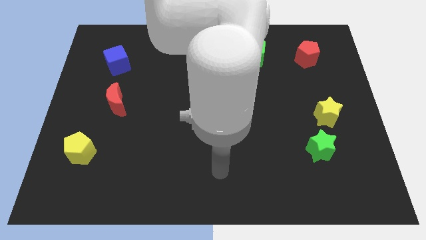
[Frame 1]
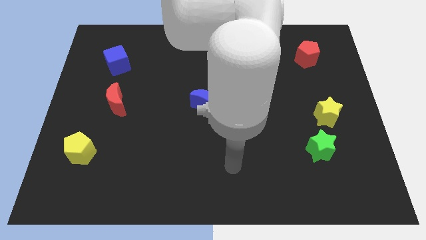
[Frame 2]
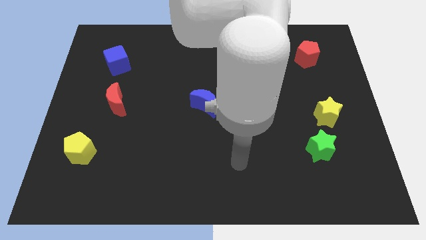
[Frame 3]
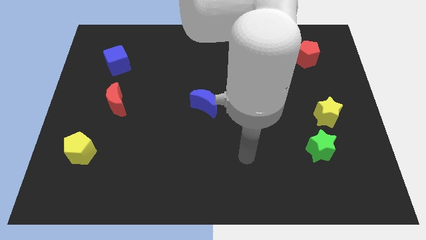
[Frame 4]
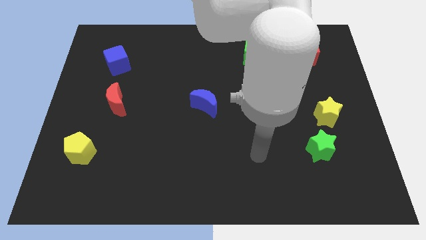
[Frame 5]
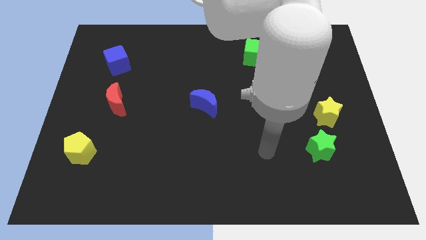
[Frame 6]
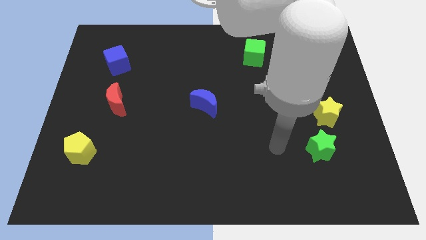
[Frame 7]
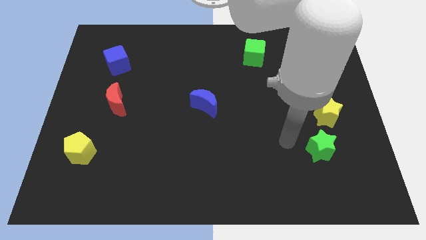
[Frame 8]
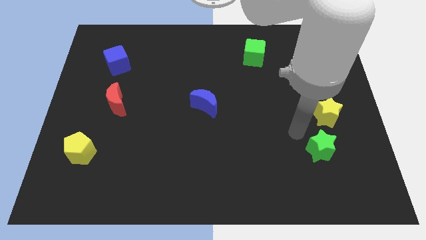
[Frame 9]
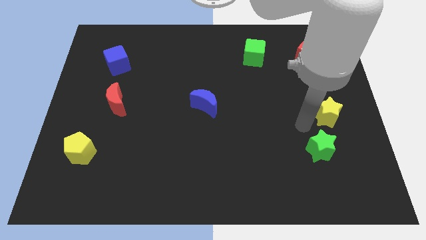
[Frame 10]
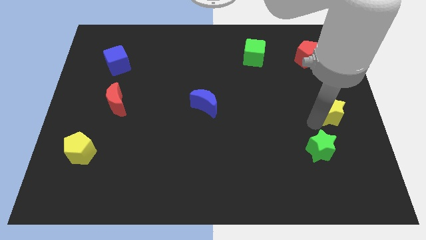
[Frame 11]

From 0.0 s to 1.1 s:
separate the green star from the yellow star

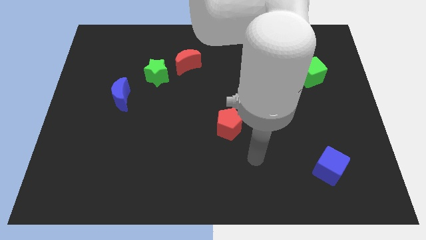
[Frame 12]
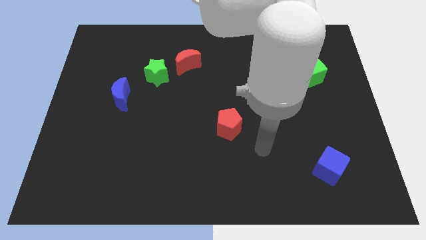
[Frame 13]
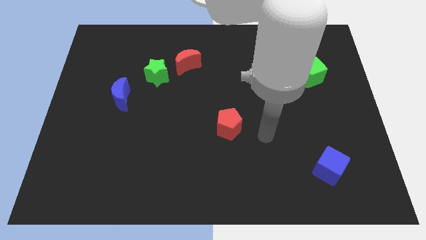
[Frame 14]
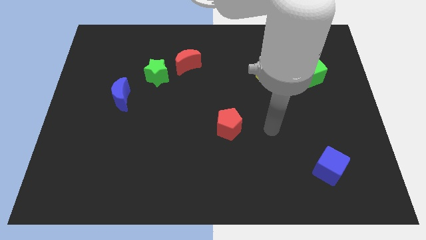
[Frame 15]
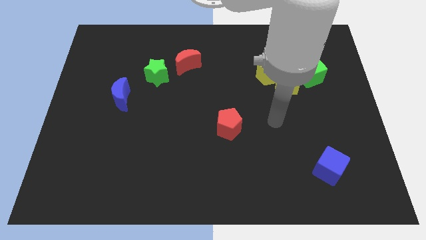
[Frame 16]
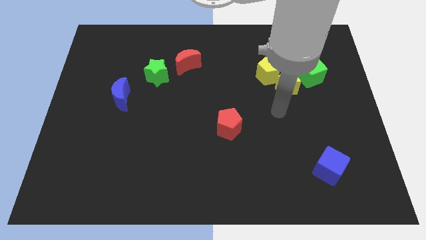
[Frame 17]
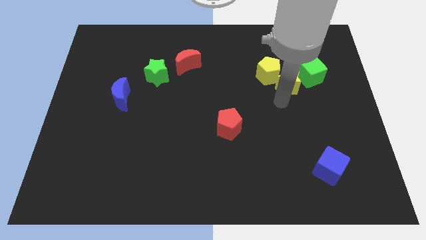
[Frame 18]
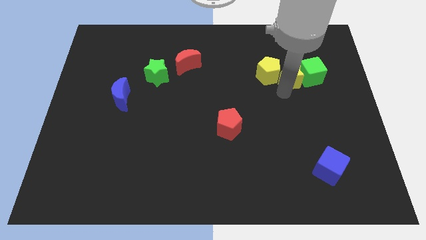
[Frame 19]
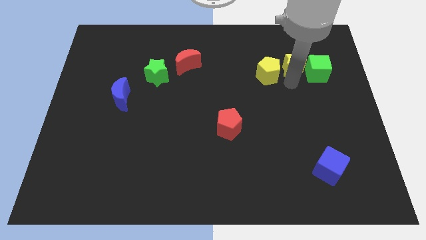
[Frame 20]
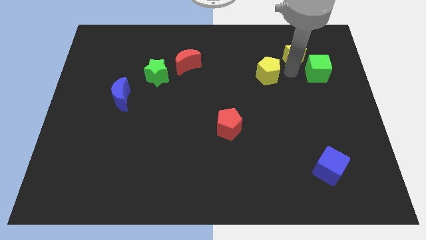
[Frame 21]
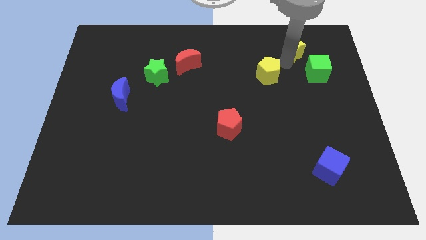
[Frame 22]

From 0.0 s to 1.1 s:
pull the yellow pentagon apart from the yellow star

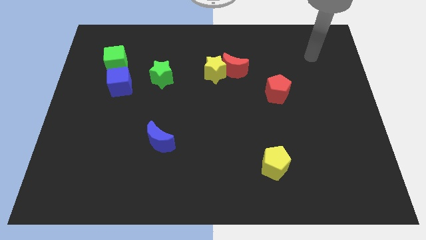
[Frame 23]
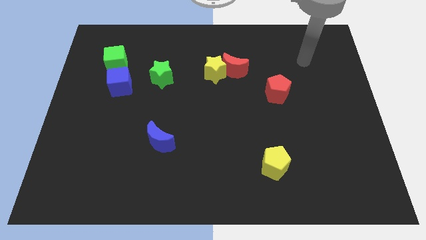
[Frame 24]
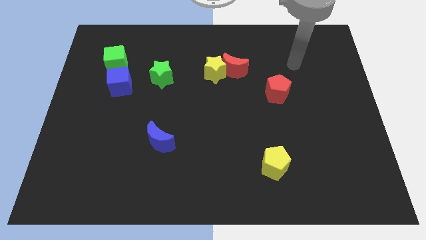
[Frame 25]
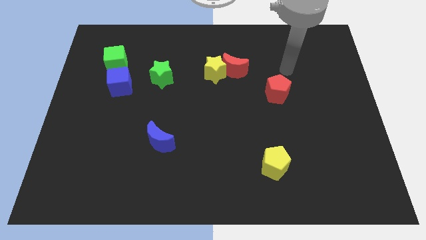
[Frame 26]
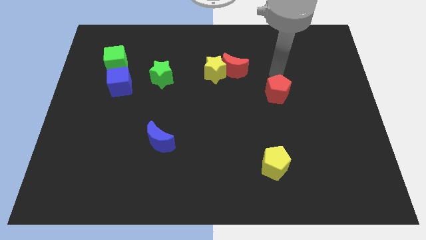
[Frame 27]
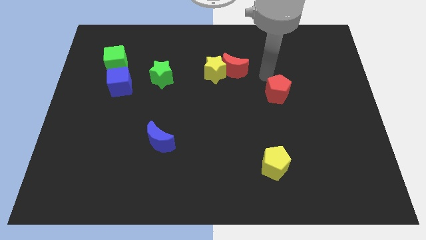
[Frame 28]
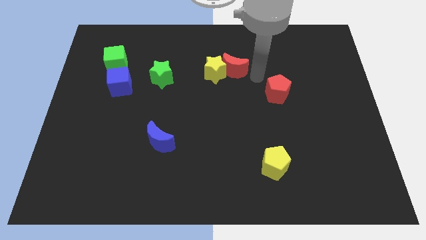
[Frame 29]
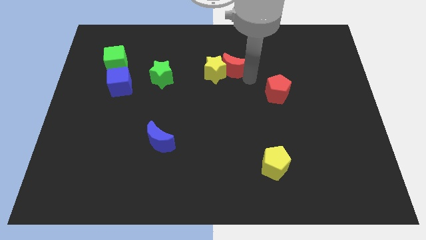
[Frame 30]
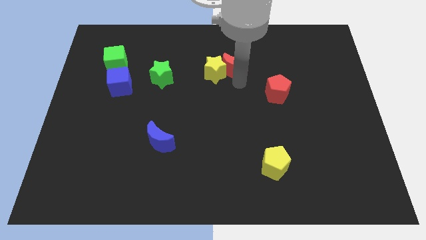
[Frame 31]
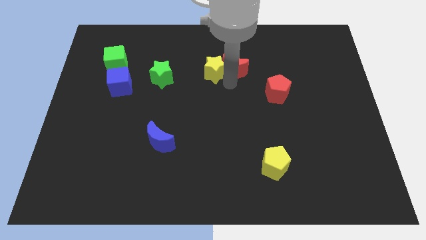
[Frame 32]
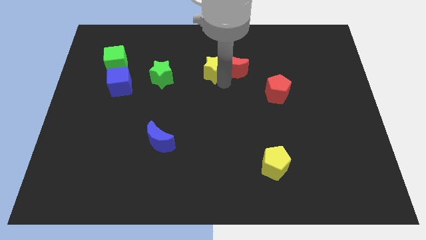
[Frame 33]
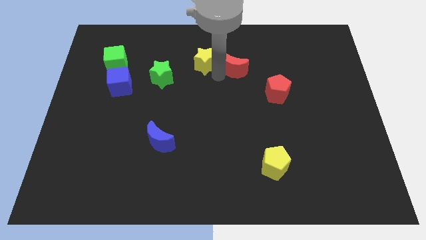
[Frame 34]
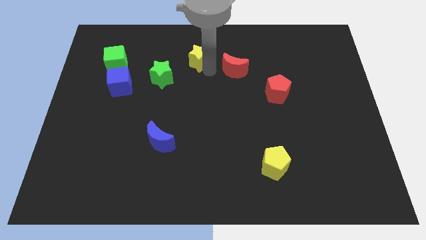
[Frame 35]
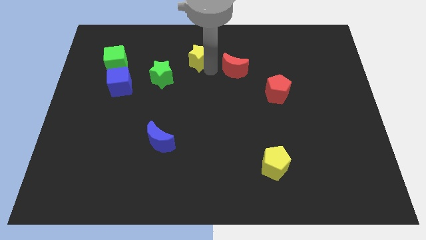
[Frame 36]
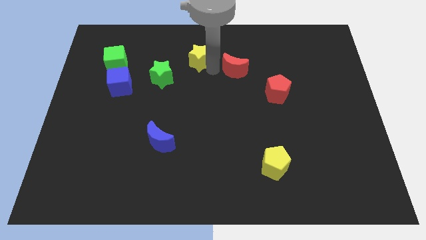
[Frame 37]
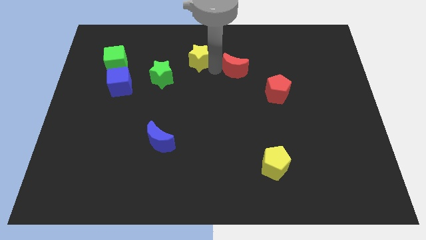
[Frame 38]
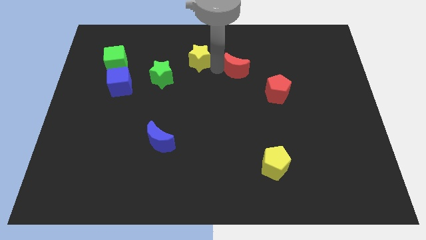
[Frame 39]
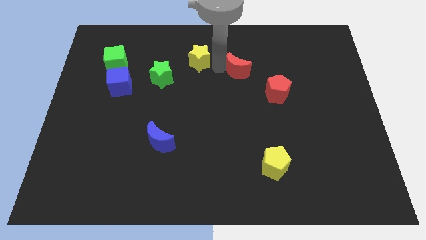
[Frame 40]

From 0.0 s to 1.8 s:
separate the red moon from the yellow star

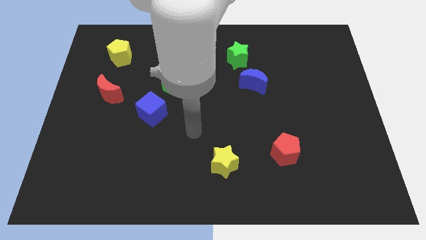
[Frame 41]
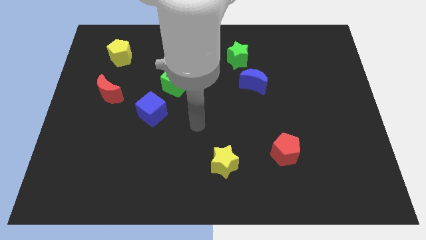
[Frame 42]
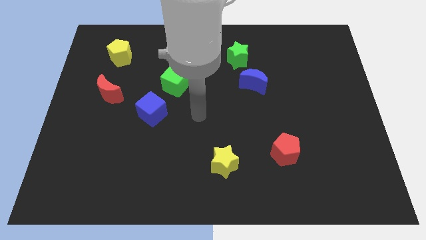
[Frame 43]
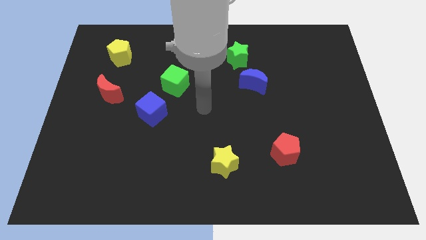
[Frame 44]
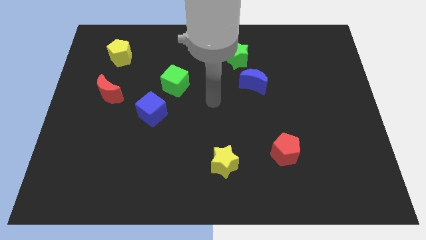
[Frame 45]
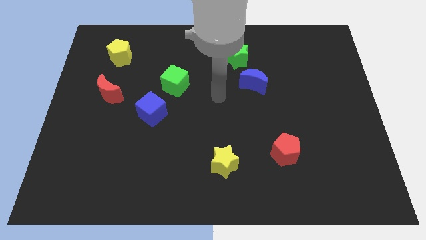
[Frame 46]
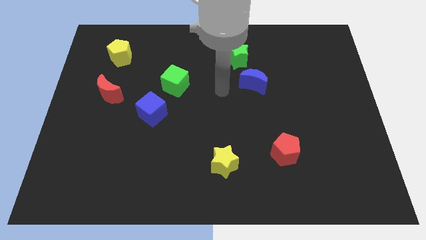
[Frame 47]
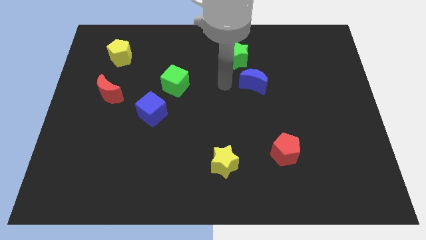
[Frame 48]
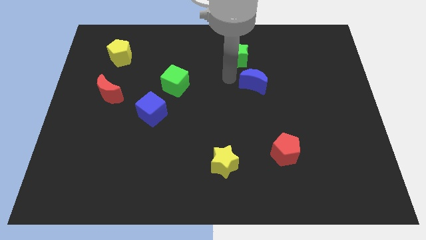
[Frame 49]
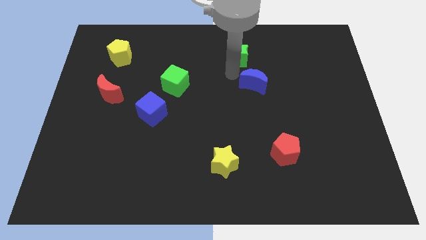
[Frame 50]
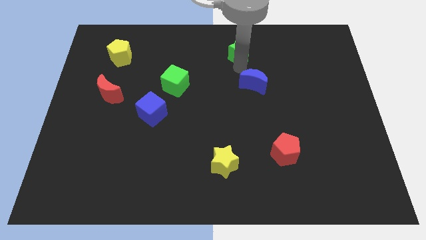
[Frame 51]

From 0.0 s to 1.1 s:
move the blue moon away from the green star

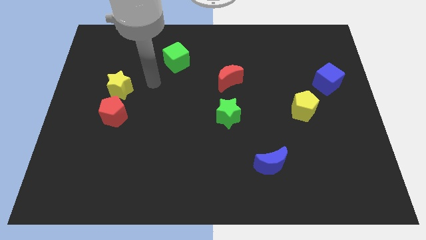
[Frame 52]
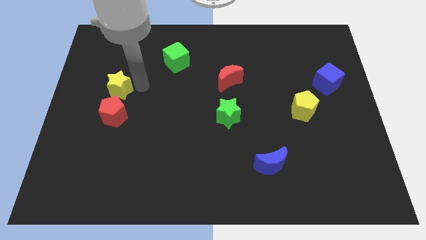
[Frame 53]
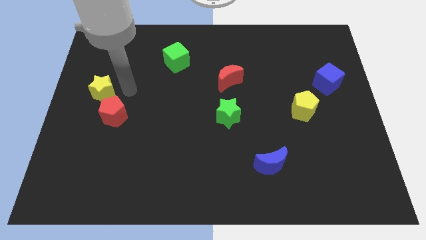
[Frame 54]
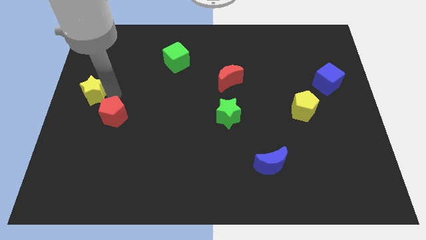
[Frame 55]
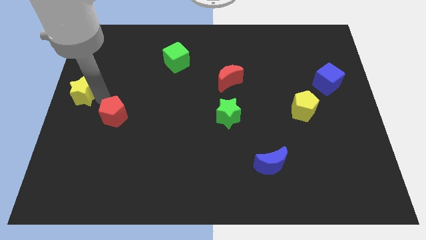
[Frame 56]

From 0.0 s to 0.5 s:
pull the red pentagon apart from the yellow star

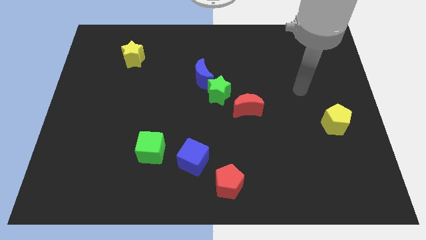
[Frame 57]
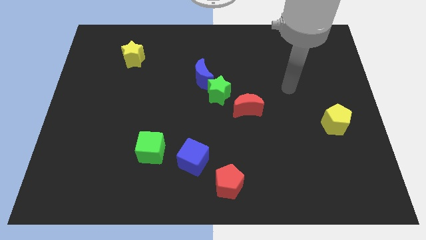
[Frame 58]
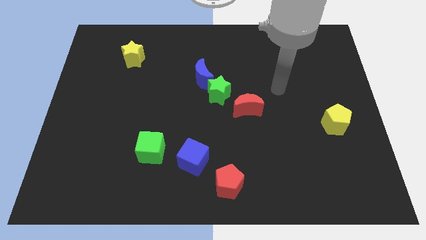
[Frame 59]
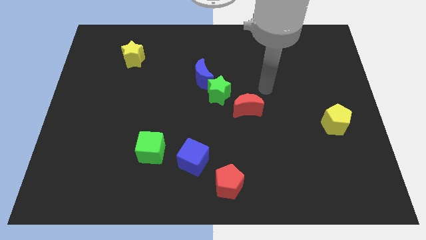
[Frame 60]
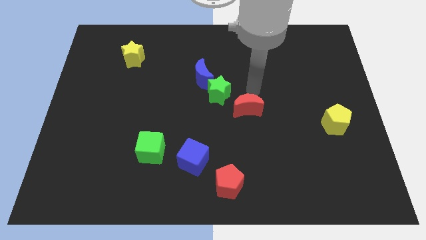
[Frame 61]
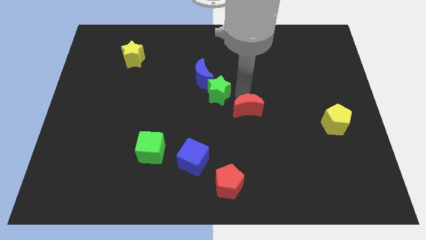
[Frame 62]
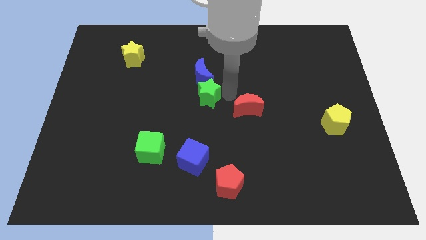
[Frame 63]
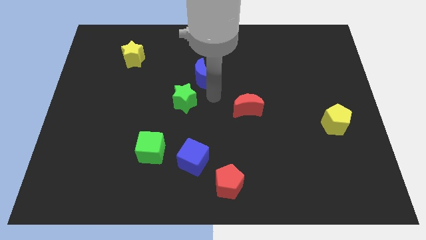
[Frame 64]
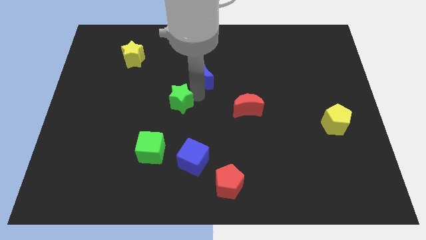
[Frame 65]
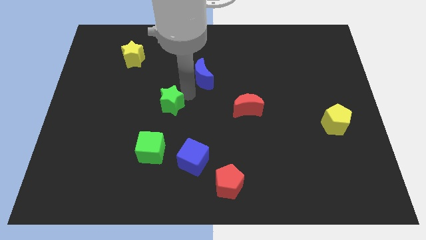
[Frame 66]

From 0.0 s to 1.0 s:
separate the blue moon from the green star

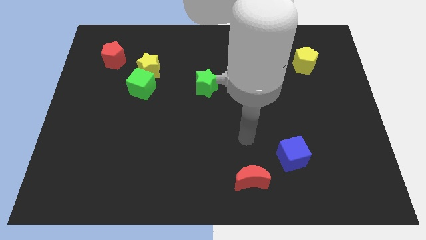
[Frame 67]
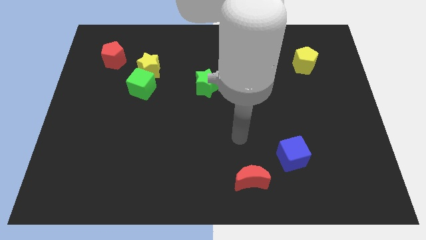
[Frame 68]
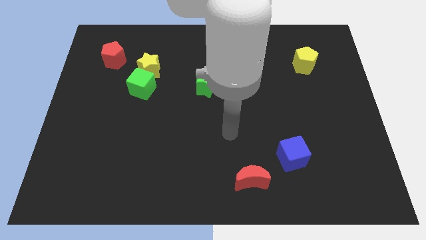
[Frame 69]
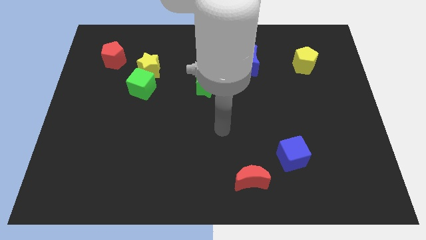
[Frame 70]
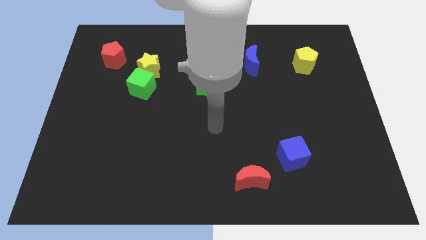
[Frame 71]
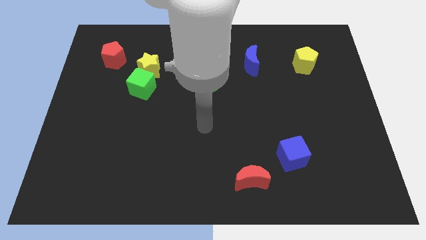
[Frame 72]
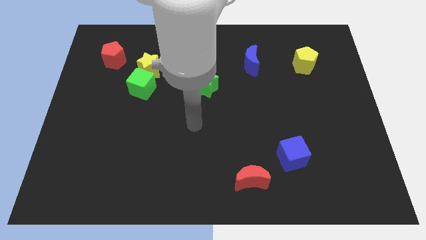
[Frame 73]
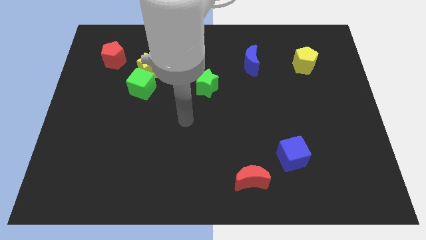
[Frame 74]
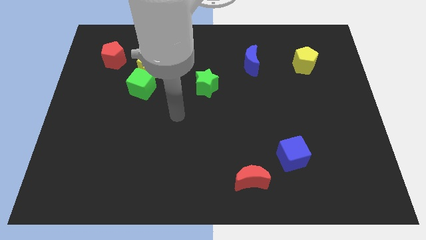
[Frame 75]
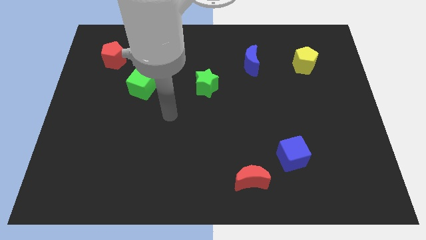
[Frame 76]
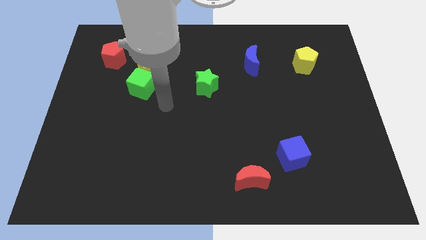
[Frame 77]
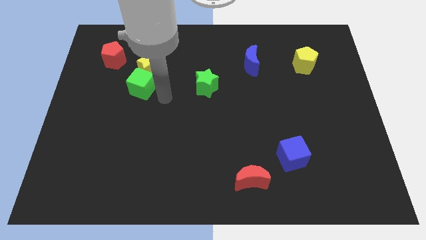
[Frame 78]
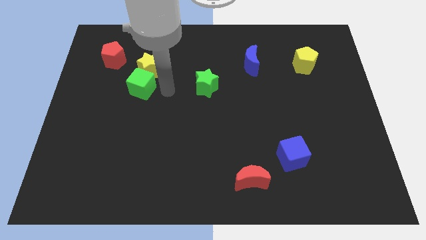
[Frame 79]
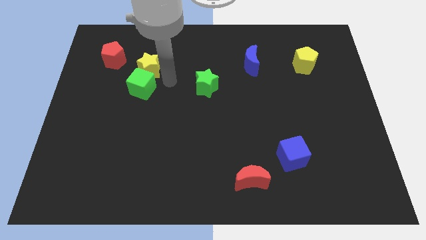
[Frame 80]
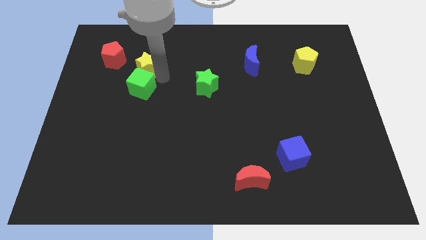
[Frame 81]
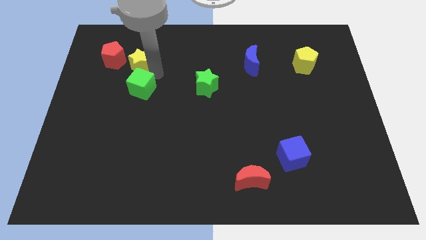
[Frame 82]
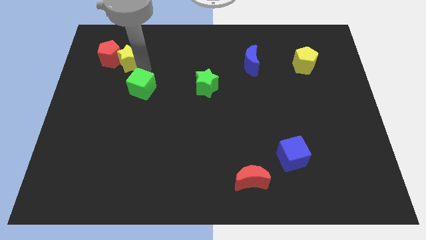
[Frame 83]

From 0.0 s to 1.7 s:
pull the green cube apart from the yellow star

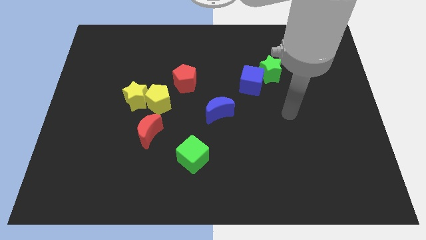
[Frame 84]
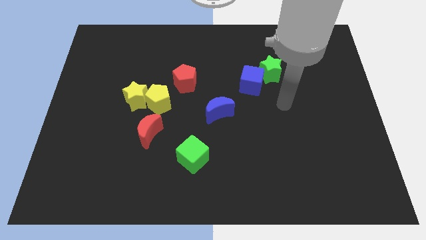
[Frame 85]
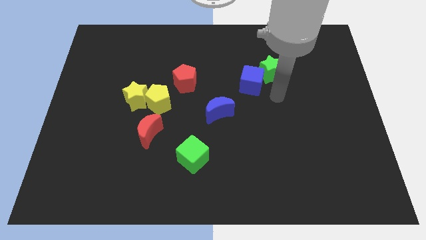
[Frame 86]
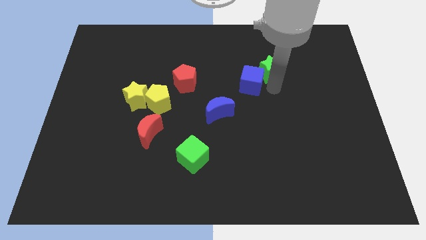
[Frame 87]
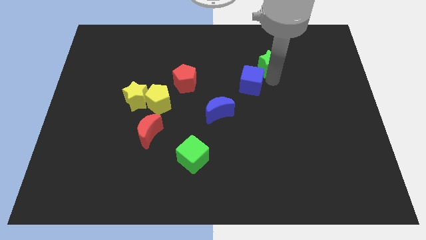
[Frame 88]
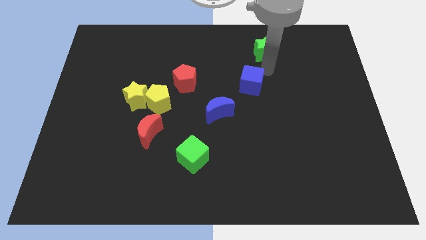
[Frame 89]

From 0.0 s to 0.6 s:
move the blue cube away from the green star

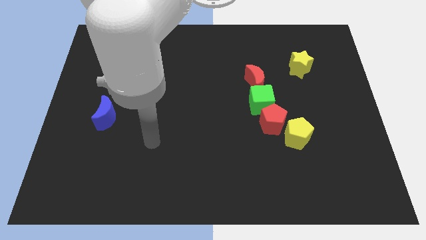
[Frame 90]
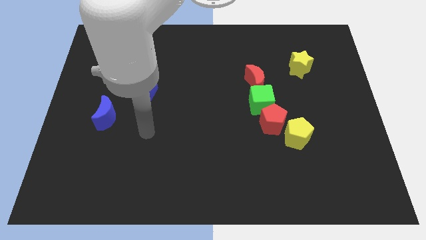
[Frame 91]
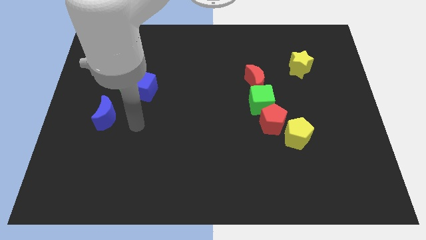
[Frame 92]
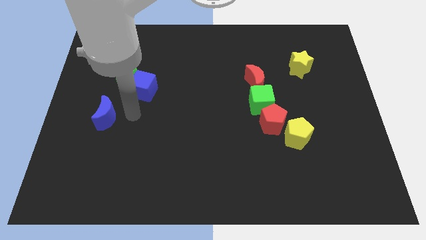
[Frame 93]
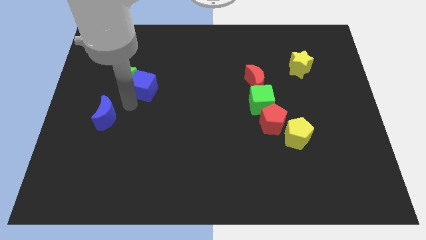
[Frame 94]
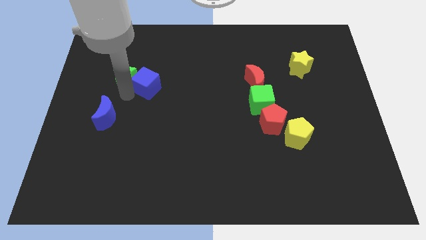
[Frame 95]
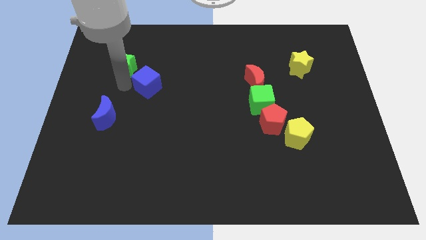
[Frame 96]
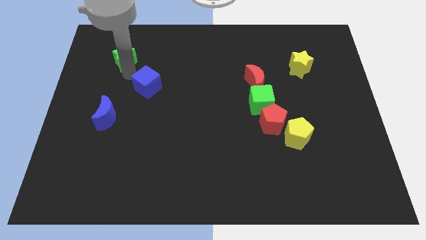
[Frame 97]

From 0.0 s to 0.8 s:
separate the blue cube from the green star
